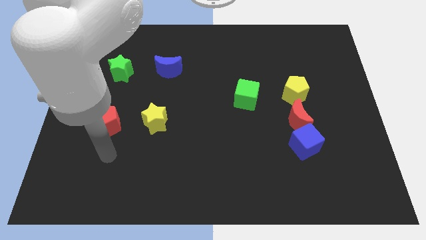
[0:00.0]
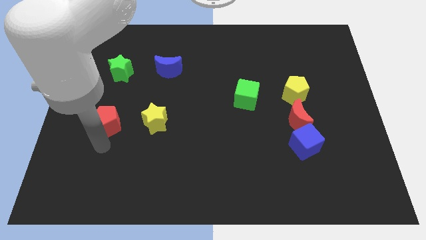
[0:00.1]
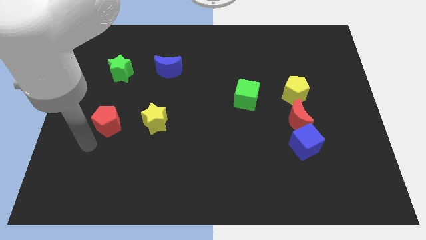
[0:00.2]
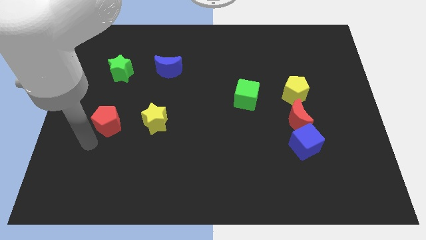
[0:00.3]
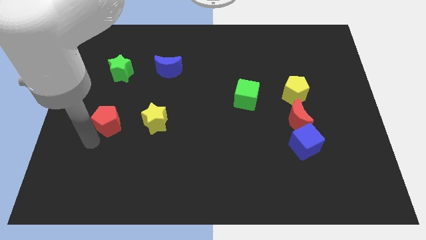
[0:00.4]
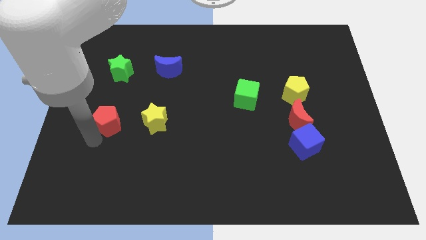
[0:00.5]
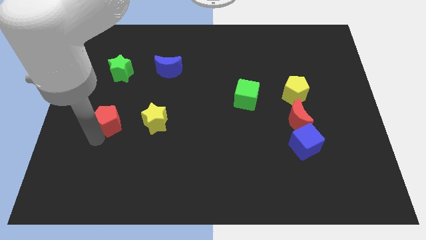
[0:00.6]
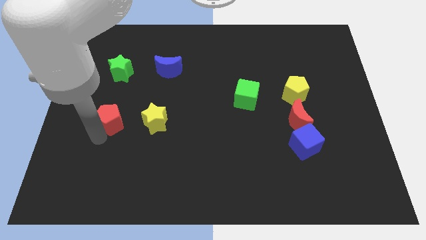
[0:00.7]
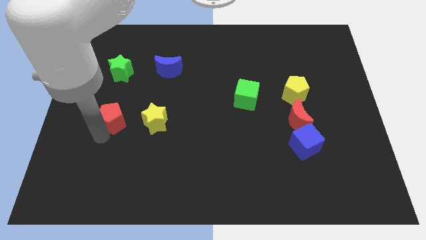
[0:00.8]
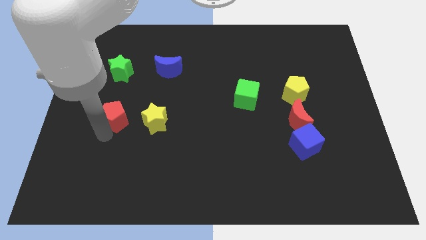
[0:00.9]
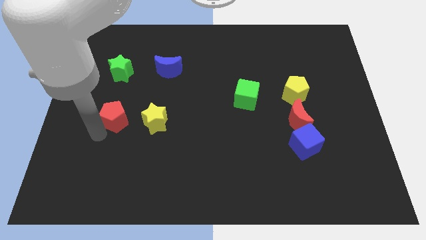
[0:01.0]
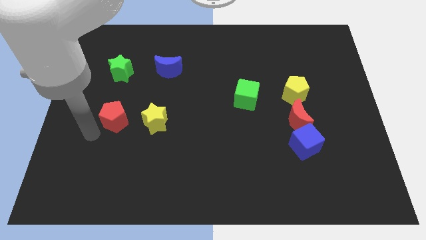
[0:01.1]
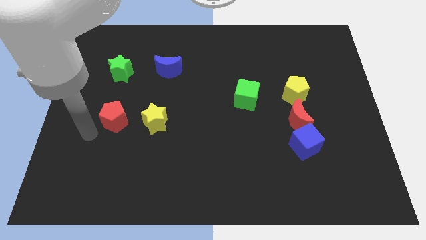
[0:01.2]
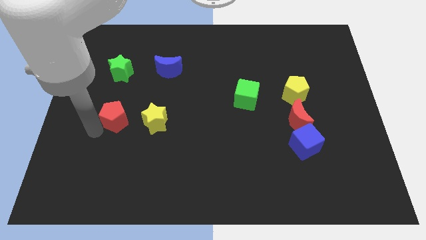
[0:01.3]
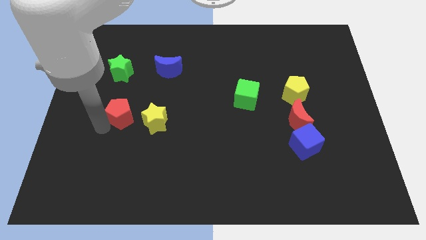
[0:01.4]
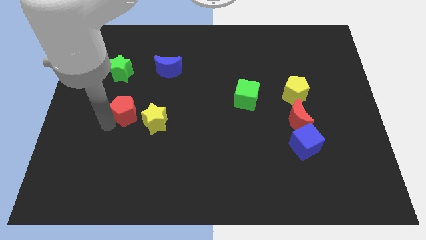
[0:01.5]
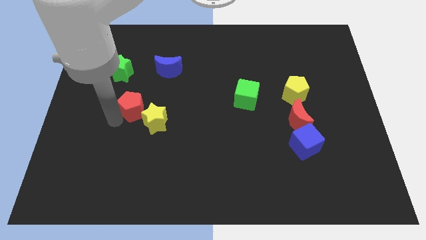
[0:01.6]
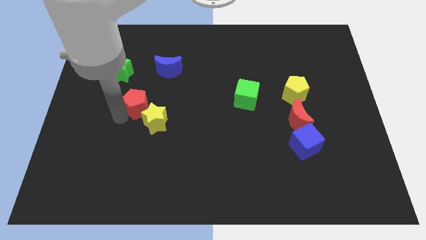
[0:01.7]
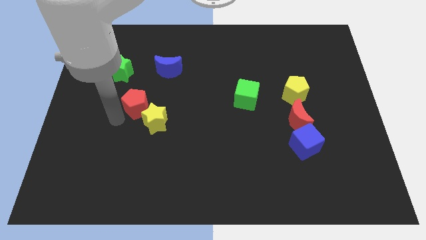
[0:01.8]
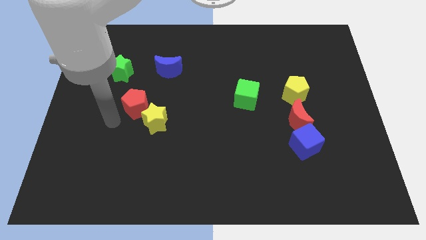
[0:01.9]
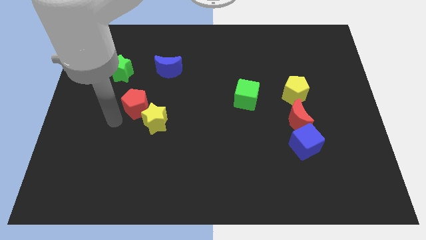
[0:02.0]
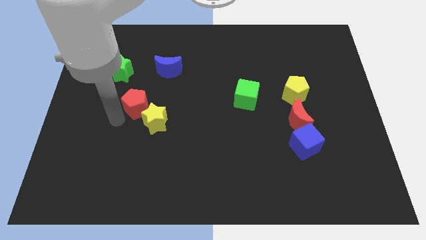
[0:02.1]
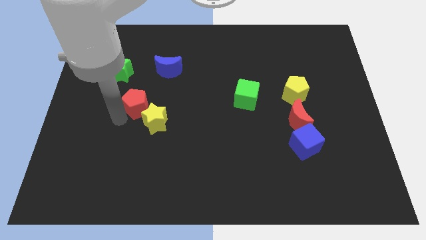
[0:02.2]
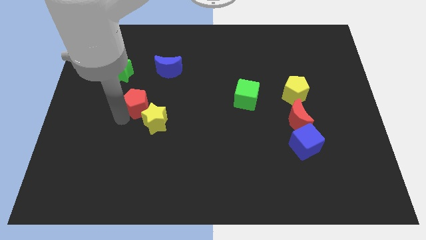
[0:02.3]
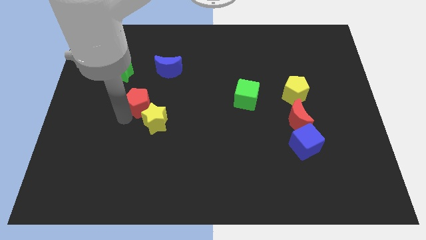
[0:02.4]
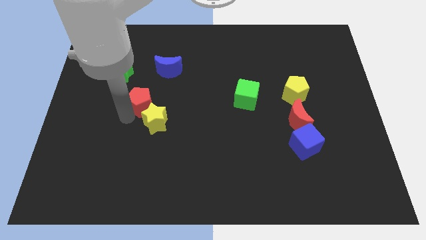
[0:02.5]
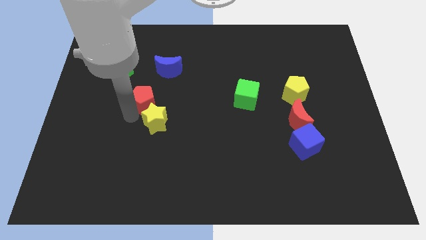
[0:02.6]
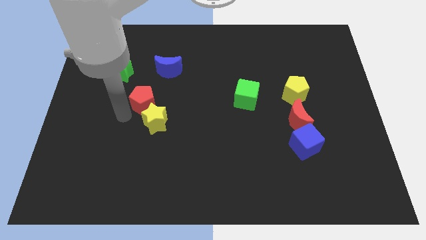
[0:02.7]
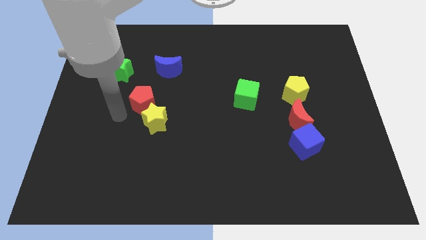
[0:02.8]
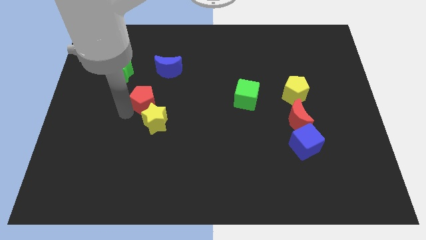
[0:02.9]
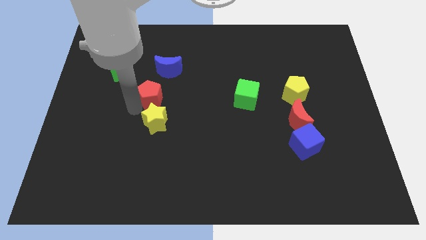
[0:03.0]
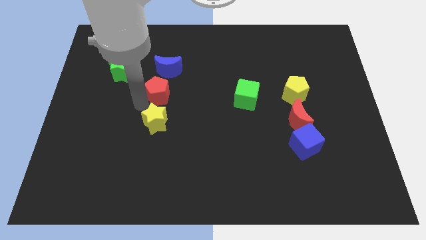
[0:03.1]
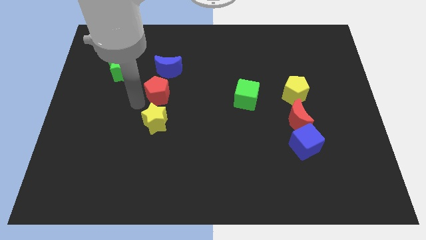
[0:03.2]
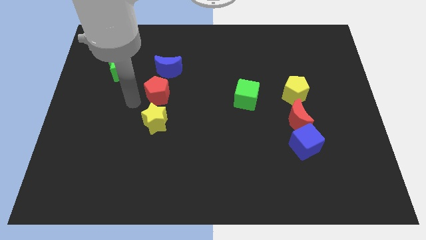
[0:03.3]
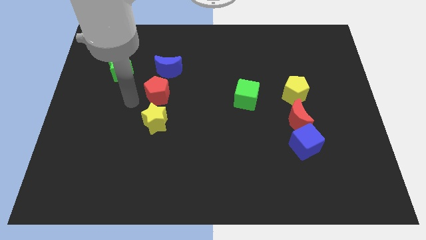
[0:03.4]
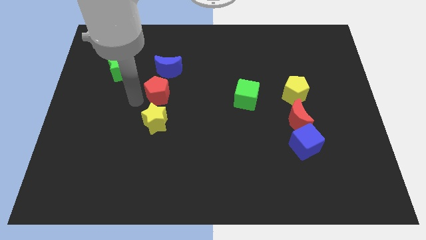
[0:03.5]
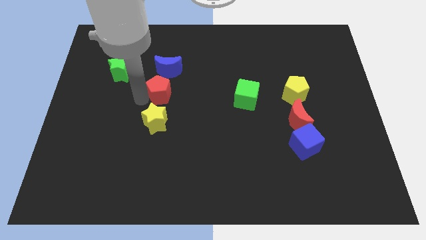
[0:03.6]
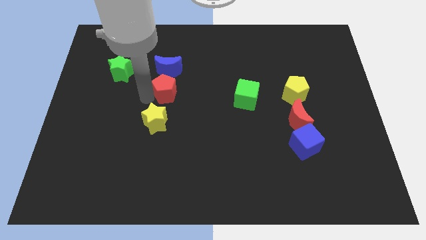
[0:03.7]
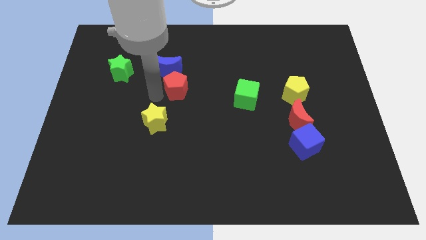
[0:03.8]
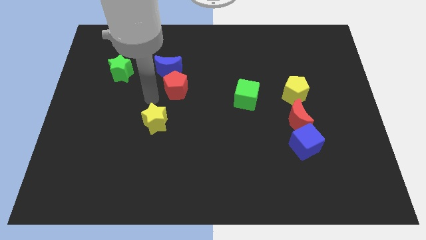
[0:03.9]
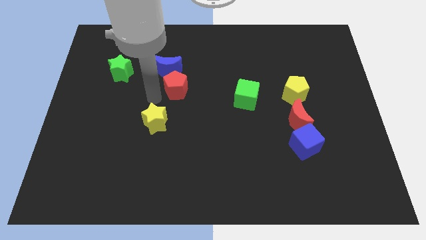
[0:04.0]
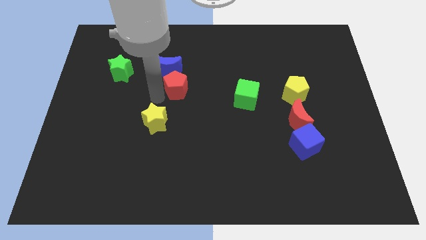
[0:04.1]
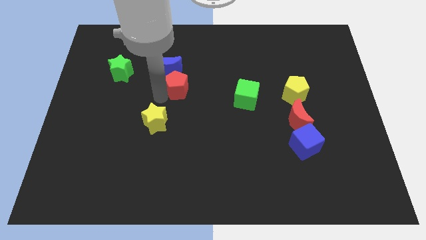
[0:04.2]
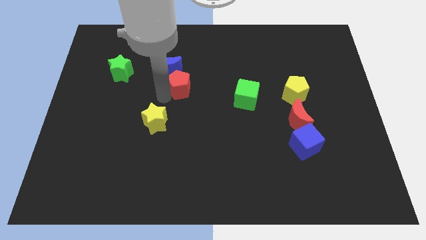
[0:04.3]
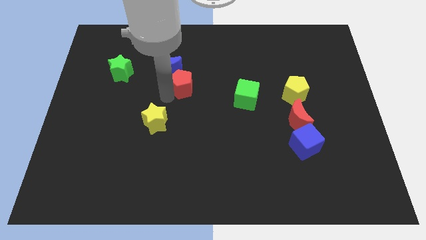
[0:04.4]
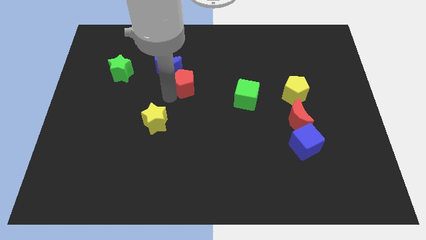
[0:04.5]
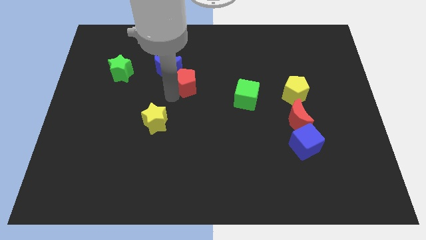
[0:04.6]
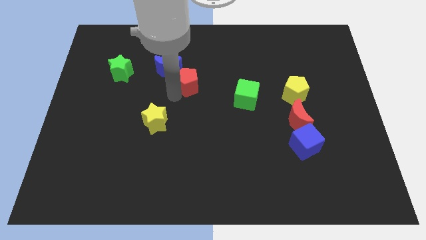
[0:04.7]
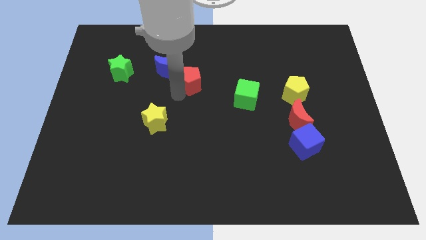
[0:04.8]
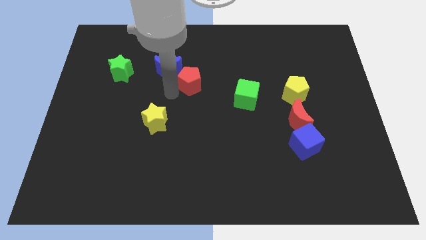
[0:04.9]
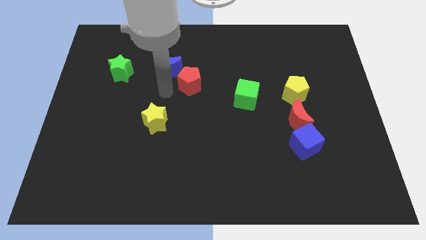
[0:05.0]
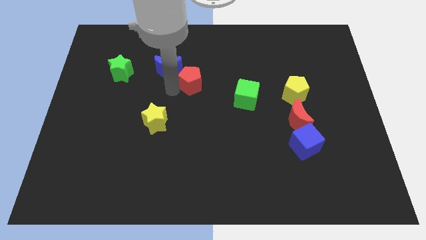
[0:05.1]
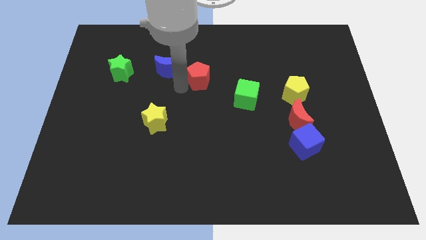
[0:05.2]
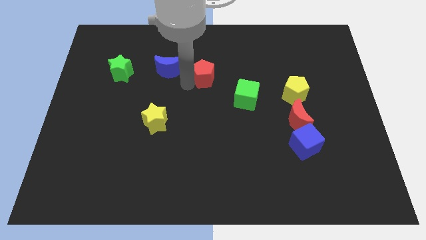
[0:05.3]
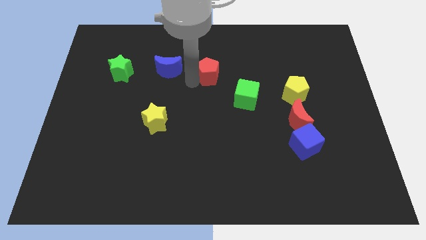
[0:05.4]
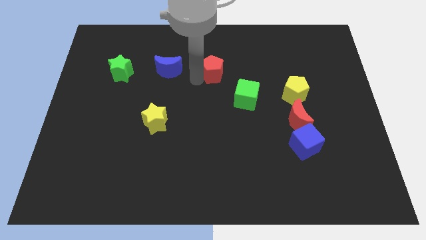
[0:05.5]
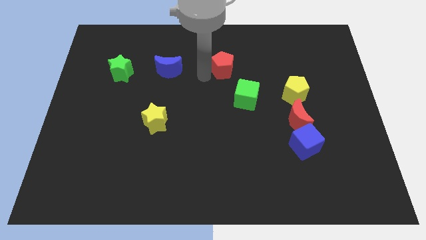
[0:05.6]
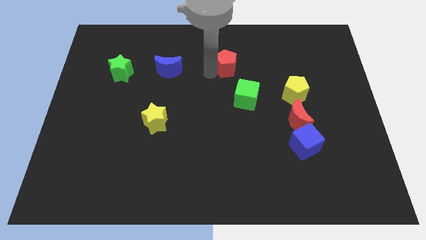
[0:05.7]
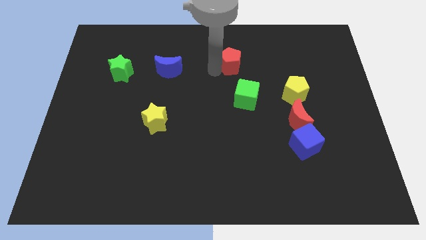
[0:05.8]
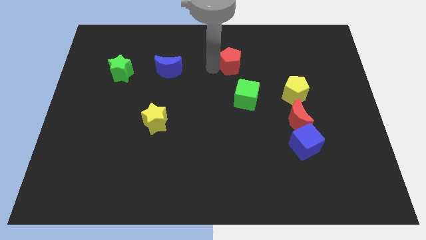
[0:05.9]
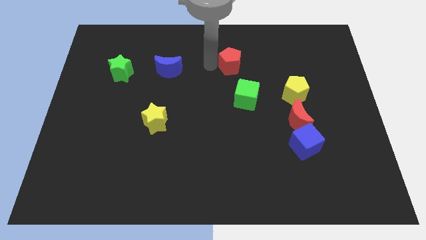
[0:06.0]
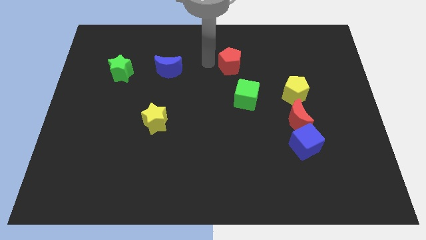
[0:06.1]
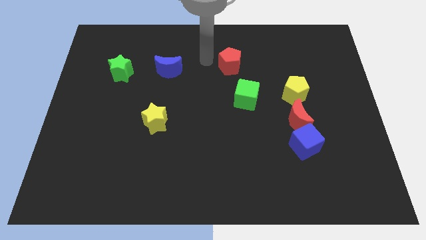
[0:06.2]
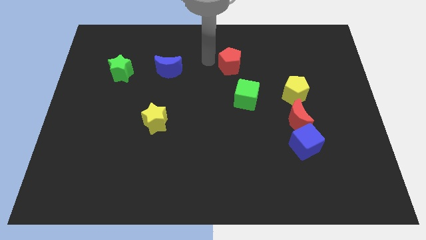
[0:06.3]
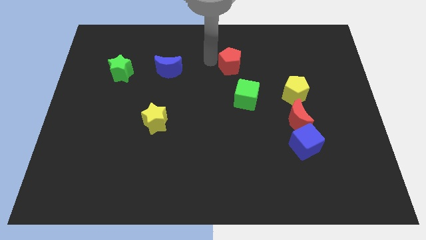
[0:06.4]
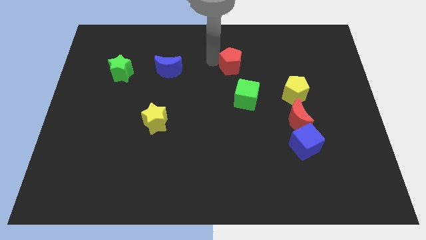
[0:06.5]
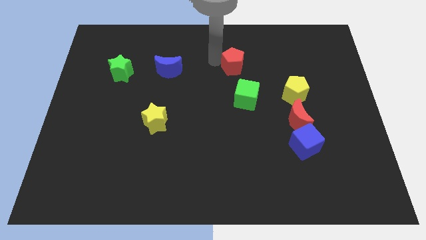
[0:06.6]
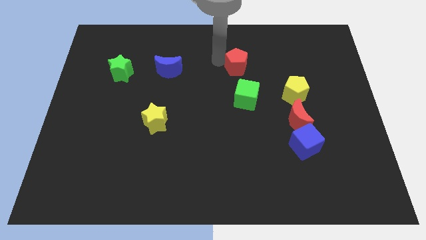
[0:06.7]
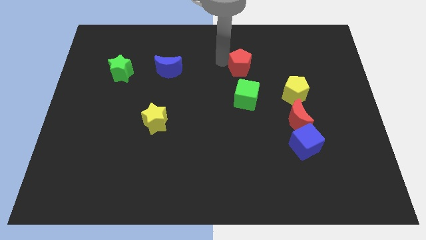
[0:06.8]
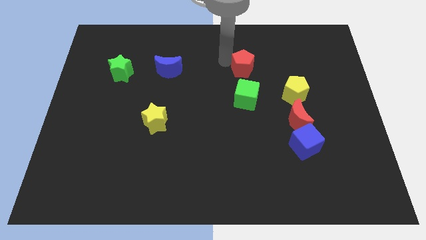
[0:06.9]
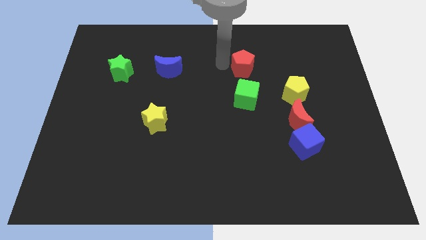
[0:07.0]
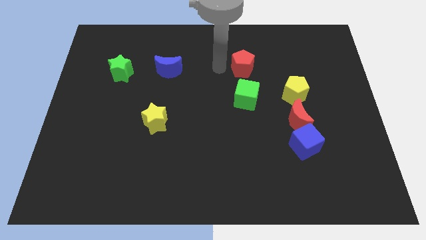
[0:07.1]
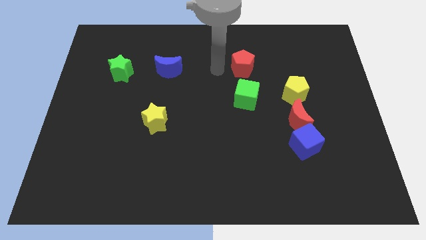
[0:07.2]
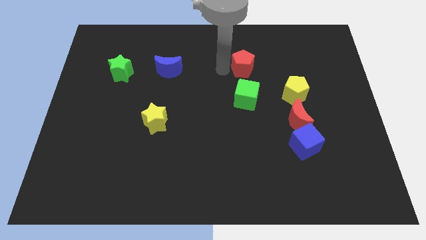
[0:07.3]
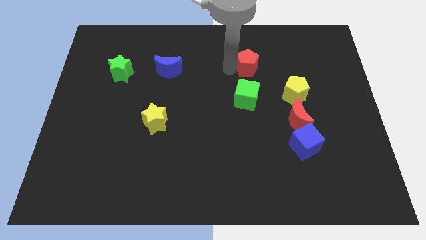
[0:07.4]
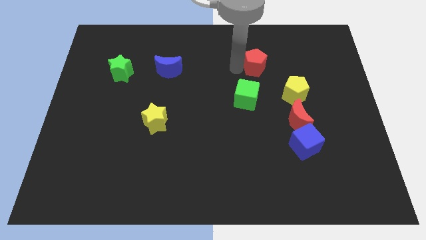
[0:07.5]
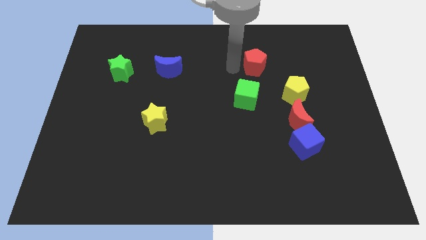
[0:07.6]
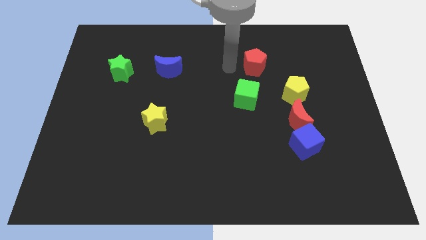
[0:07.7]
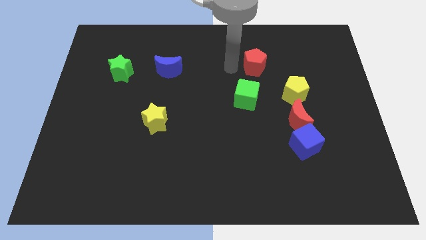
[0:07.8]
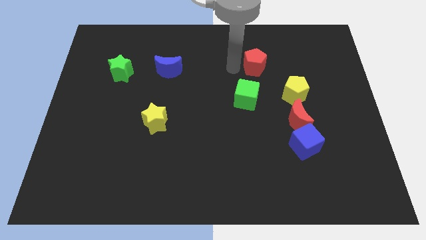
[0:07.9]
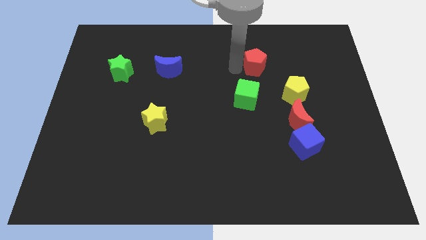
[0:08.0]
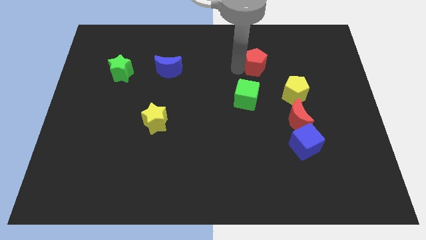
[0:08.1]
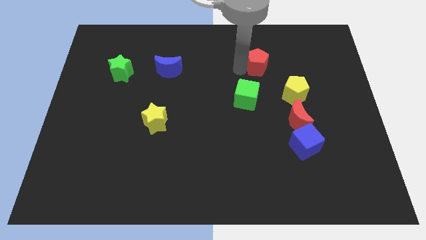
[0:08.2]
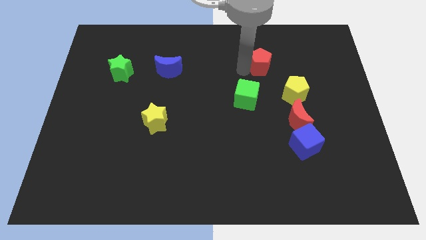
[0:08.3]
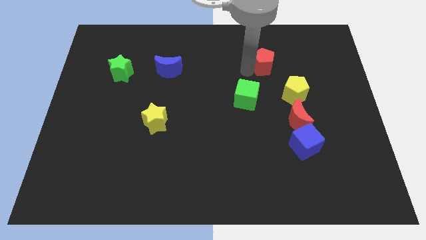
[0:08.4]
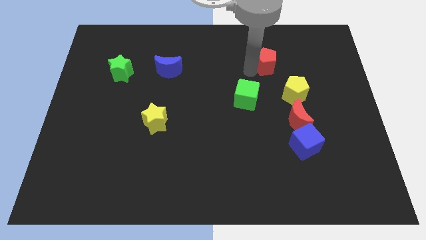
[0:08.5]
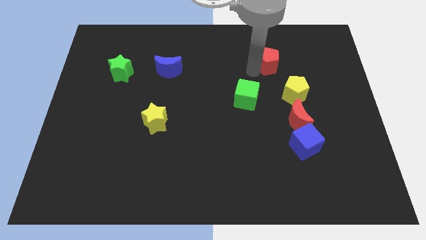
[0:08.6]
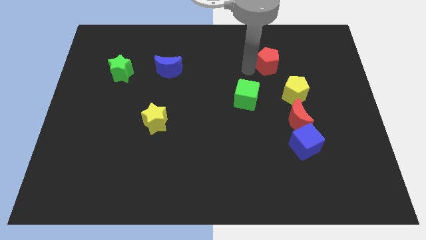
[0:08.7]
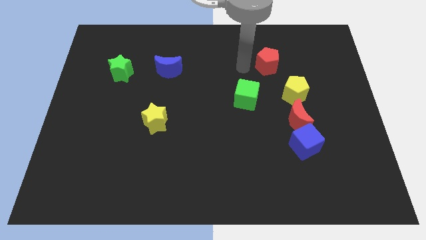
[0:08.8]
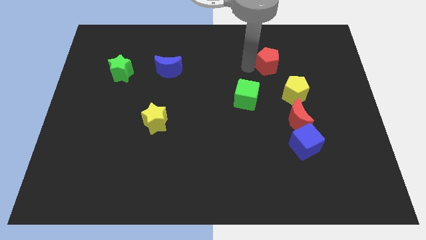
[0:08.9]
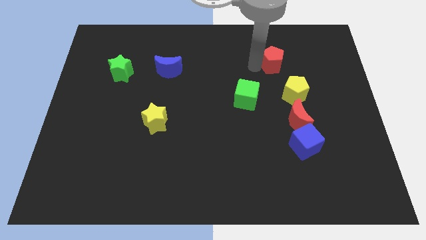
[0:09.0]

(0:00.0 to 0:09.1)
slide the red pentagon to the top side of the yellow pentagon
